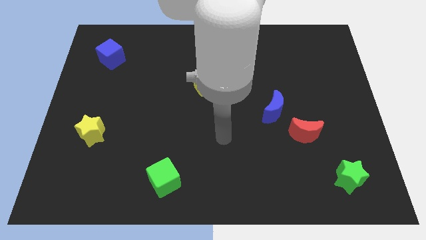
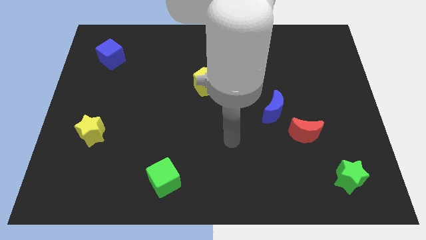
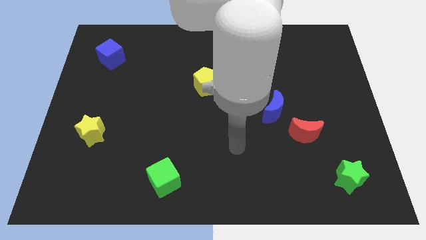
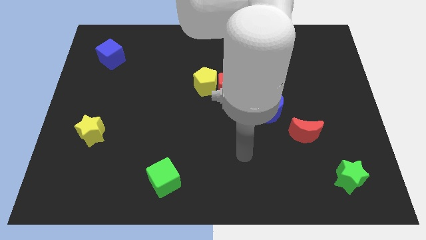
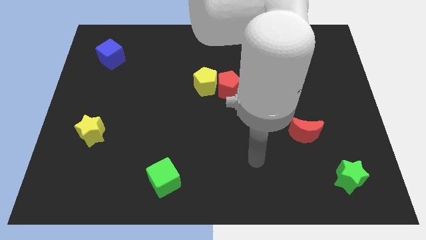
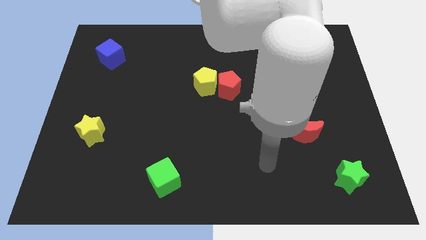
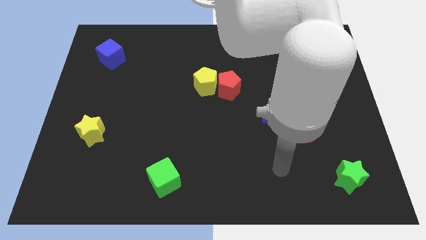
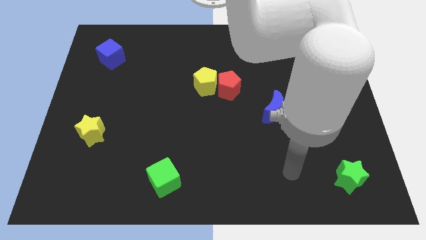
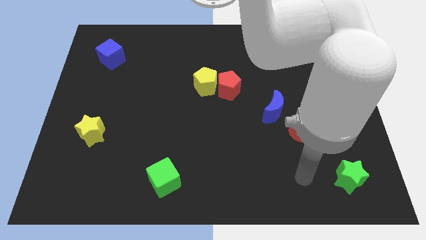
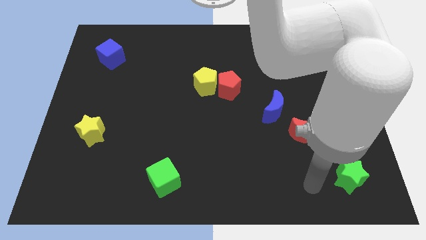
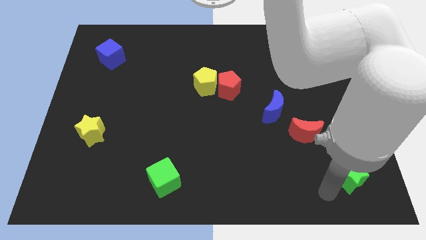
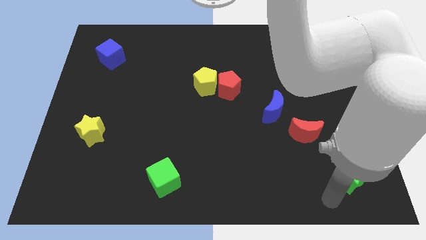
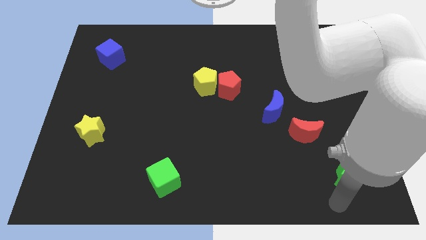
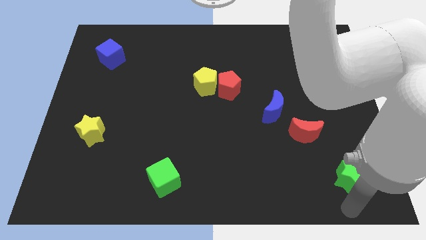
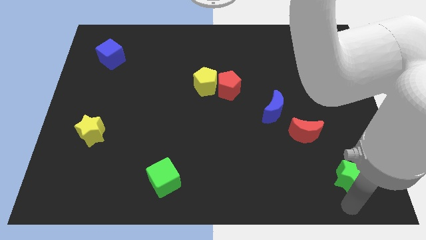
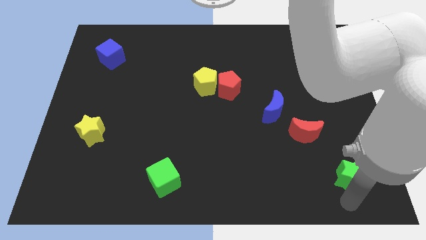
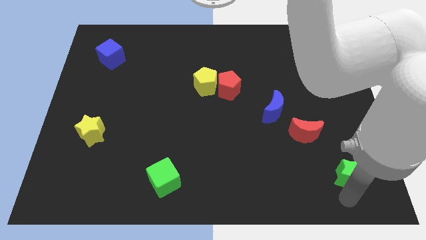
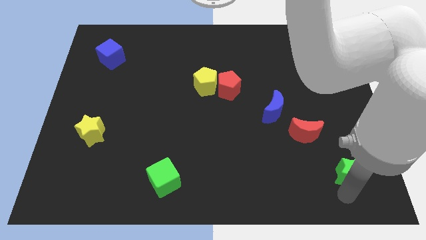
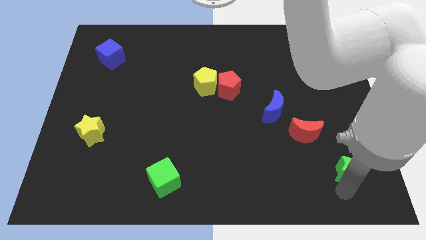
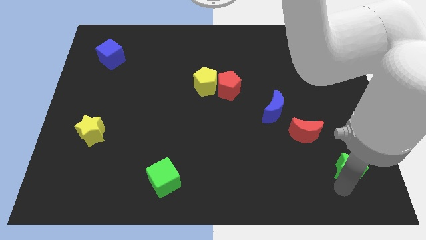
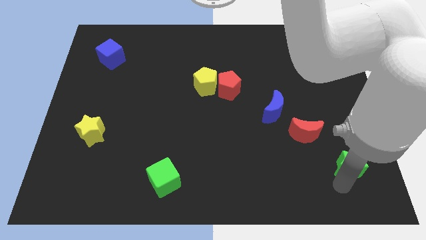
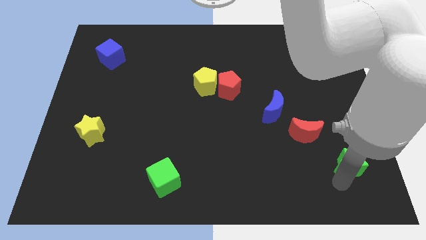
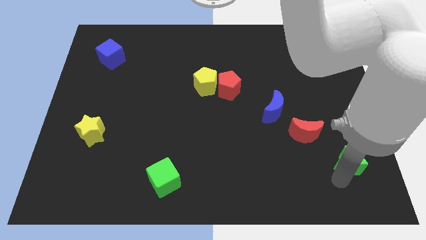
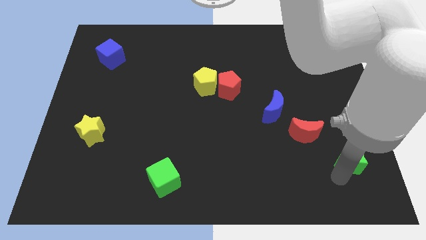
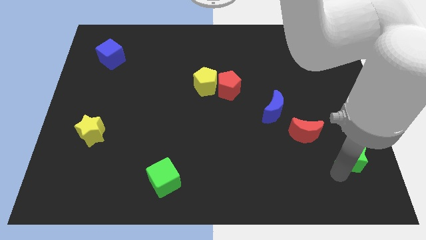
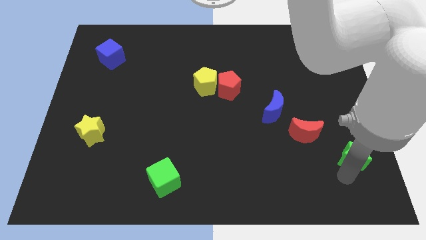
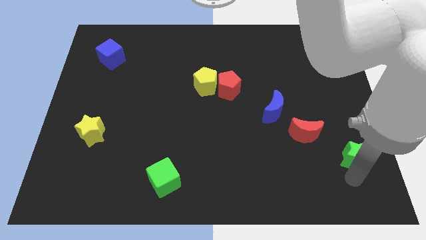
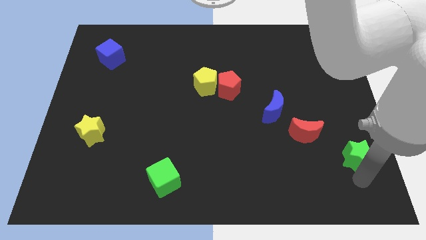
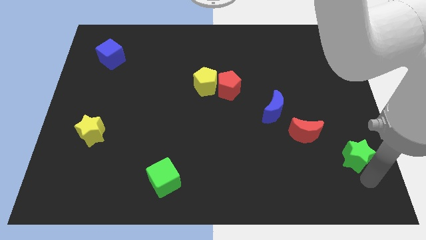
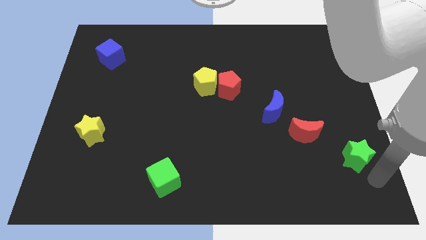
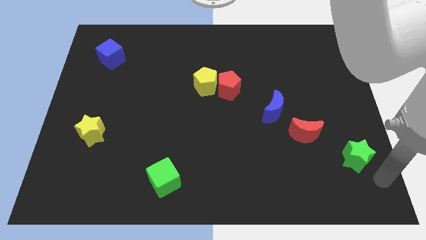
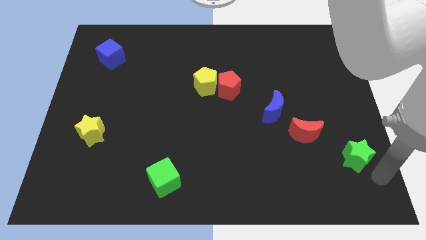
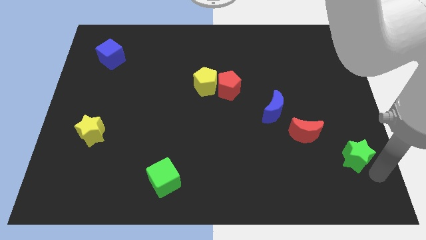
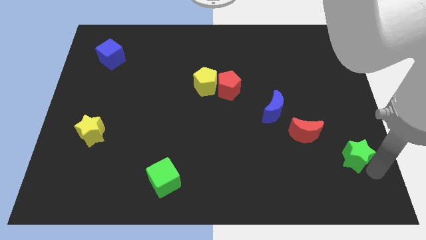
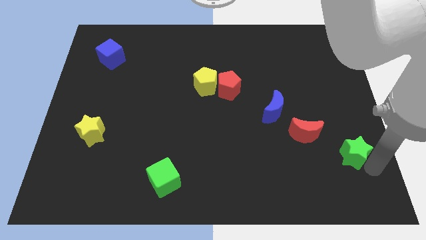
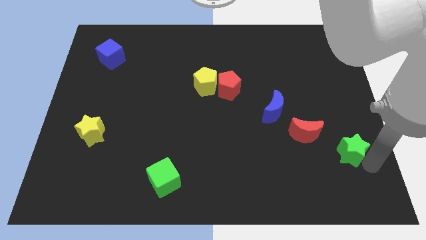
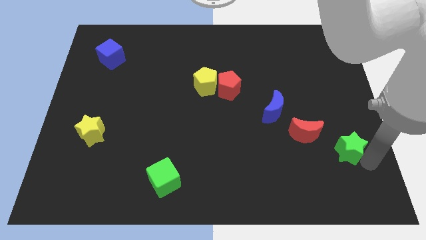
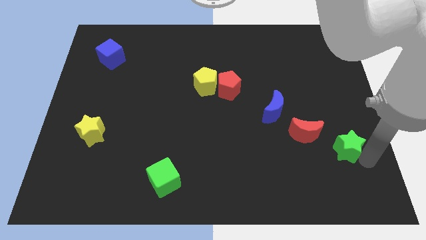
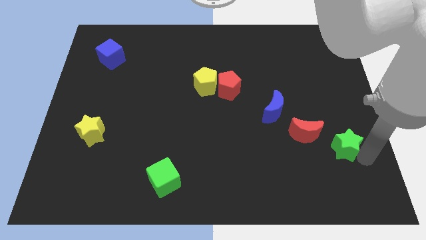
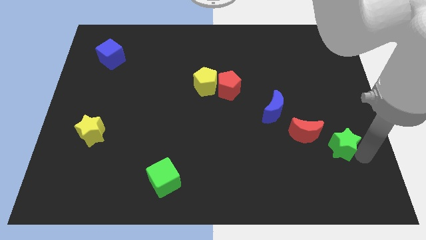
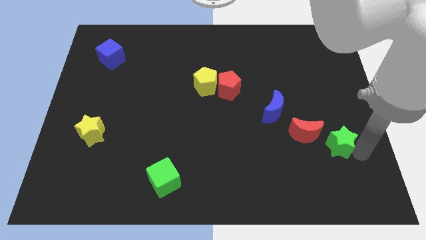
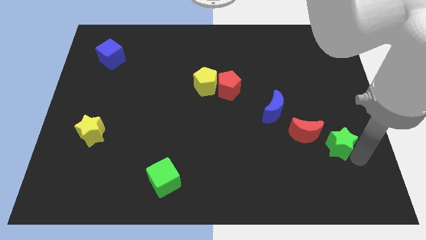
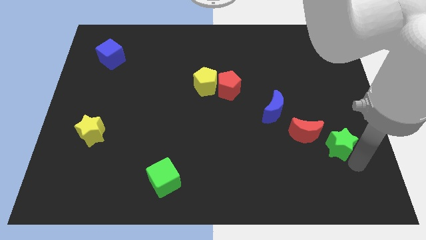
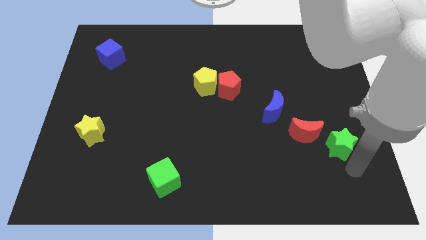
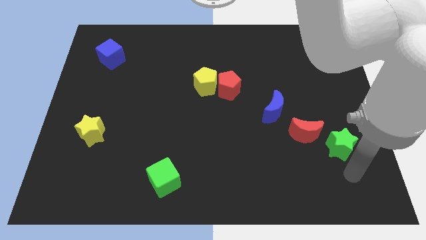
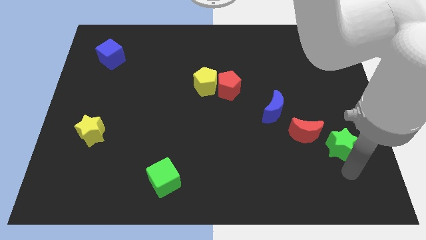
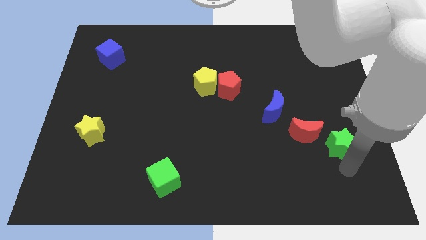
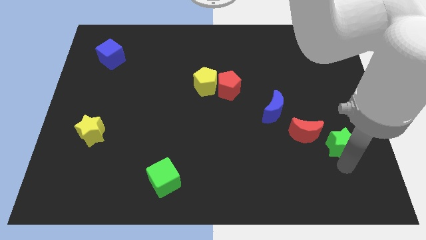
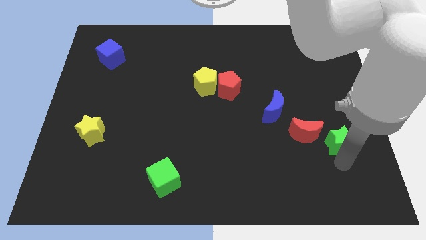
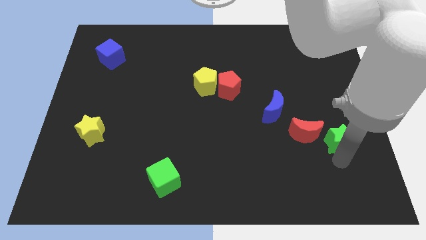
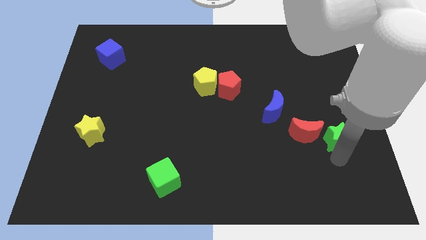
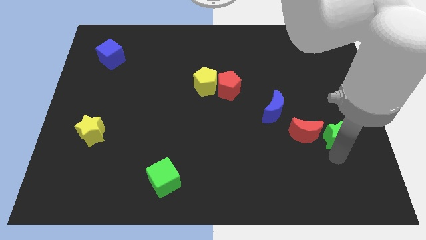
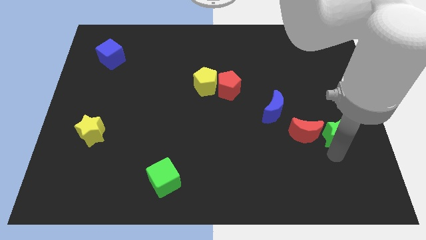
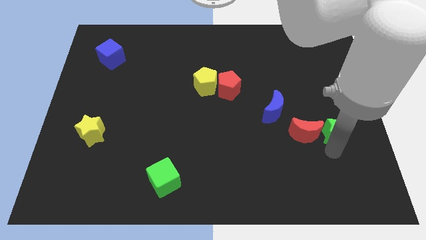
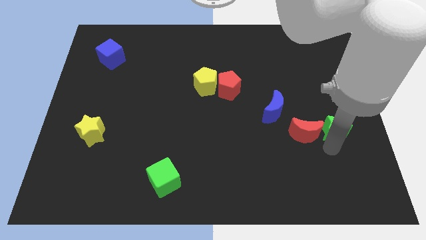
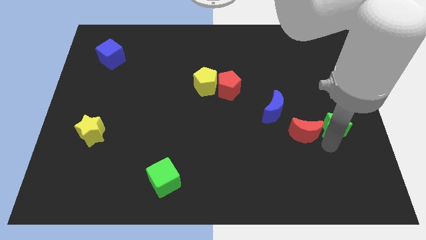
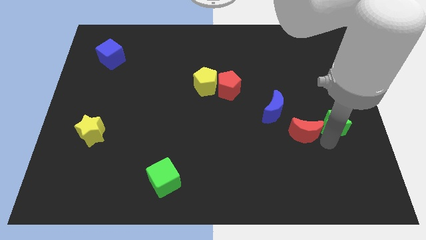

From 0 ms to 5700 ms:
put the green star to the right side of the blue moon

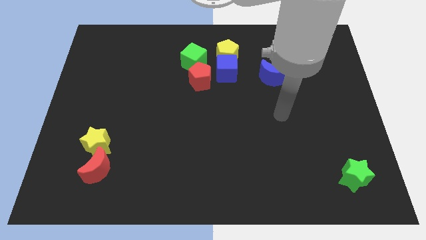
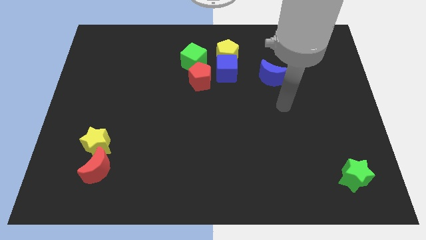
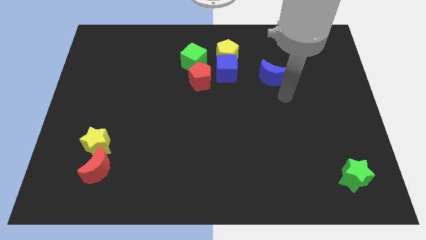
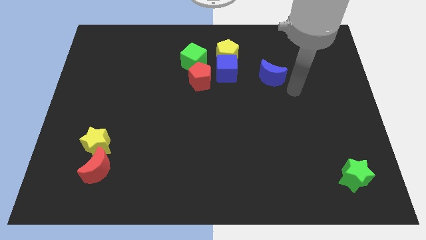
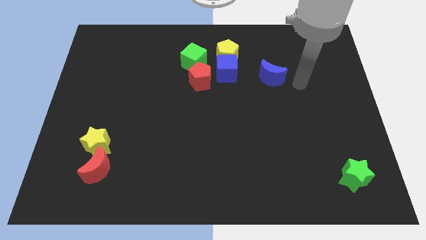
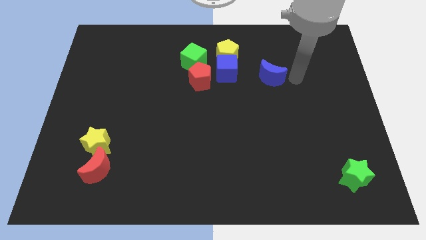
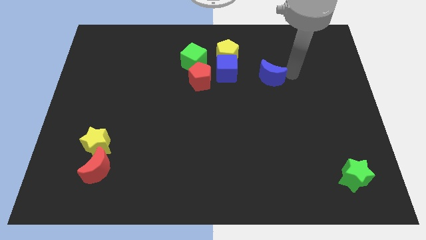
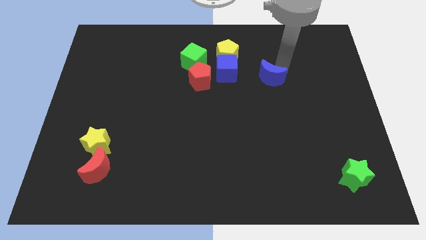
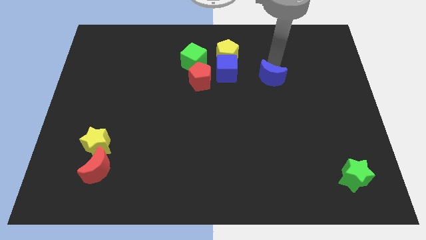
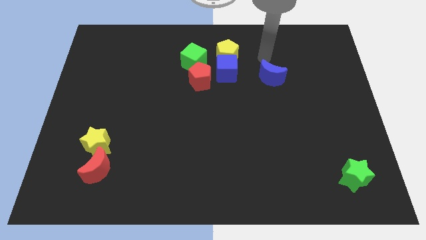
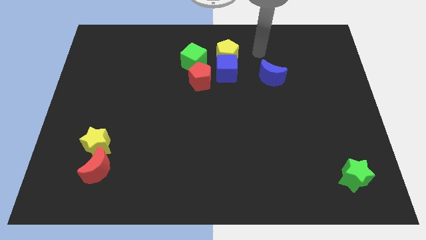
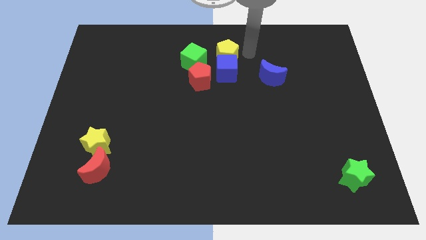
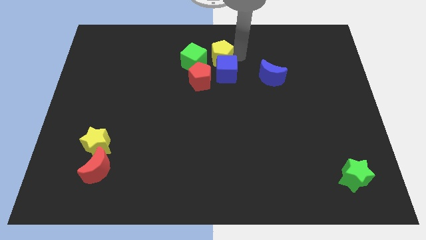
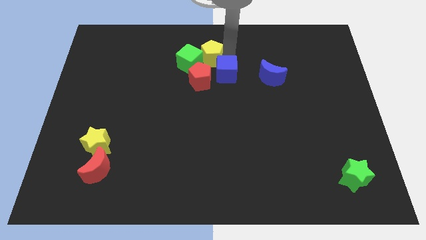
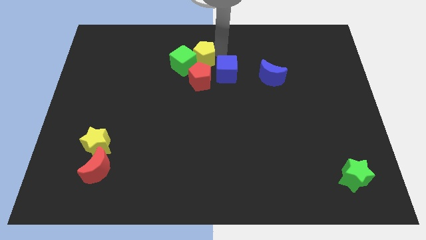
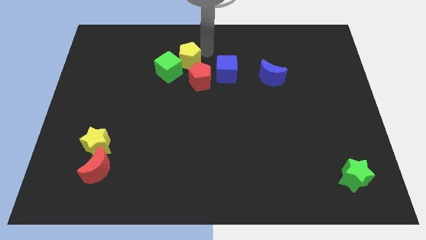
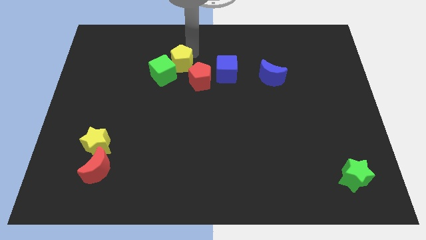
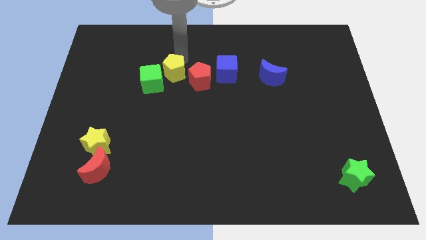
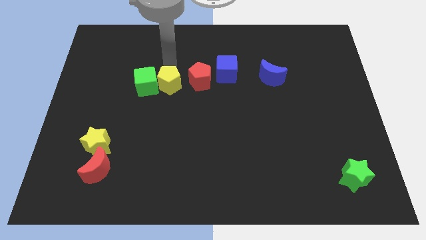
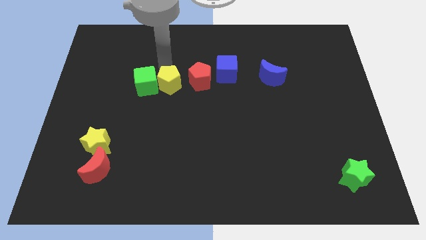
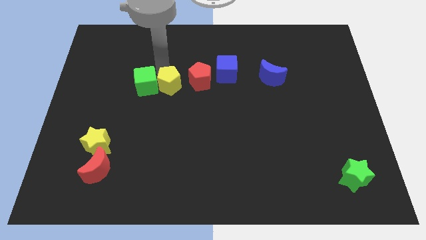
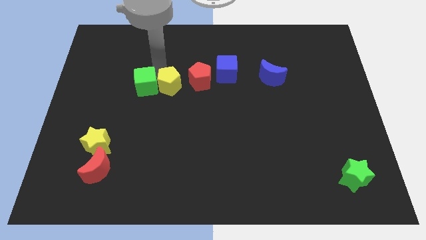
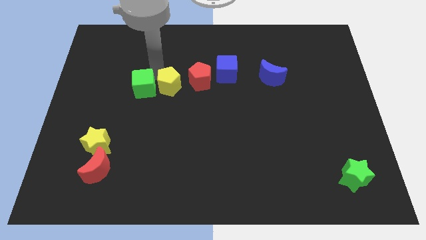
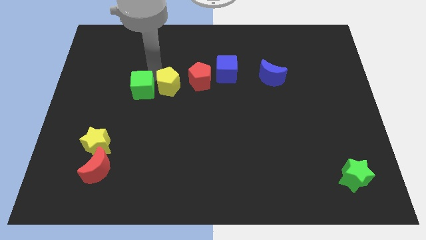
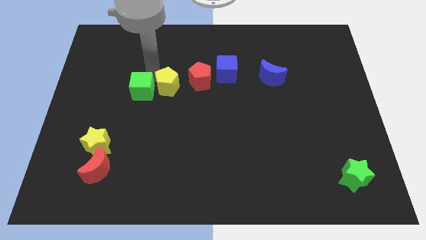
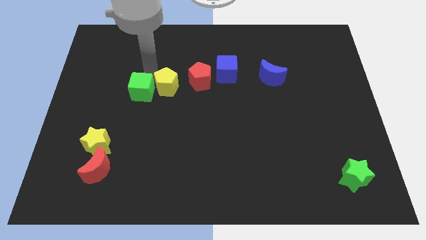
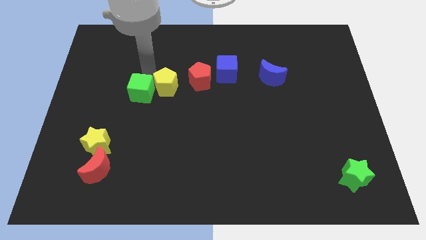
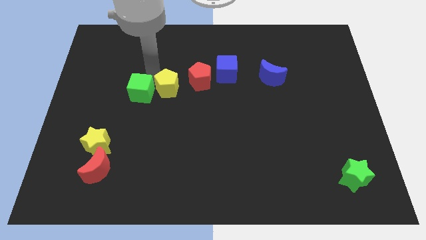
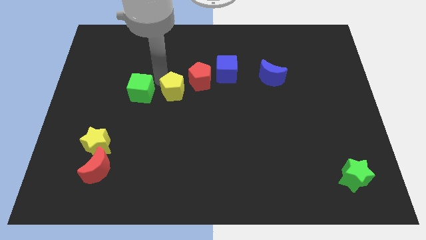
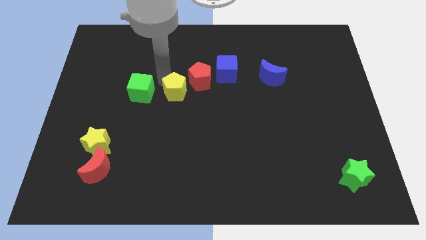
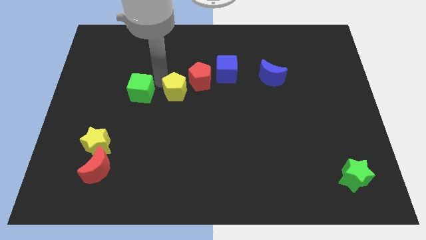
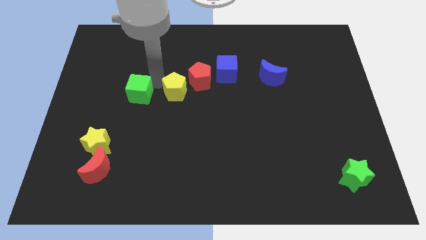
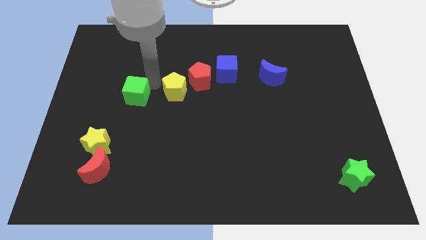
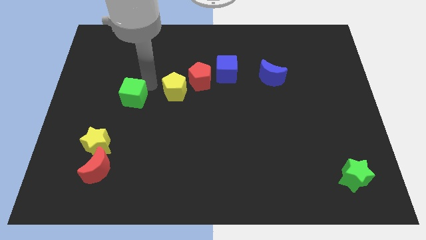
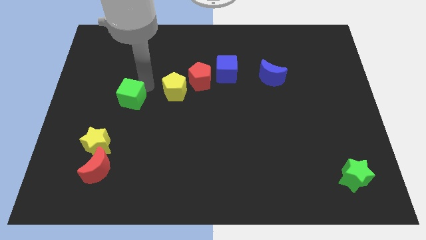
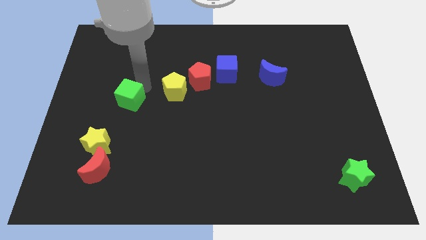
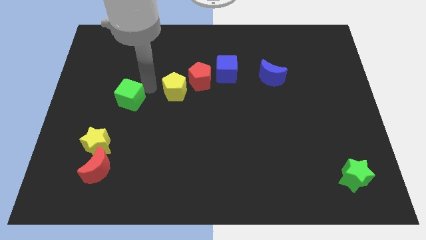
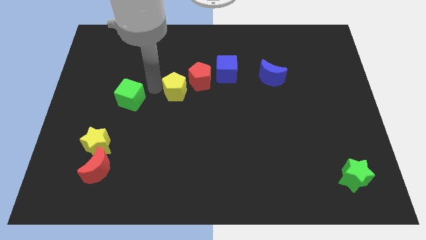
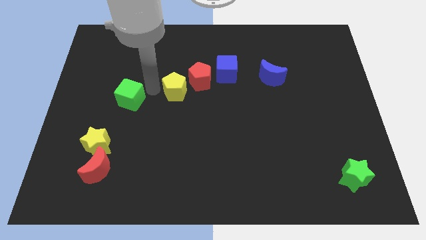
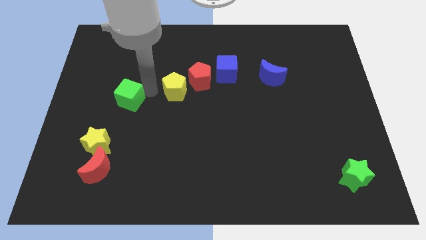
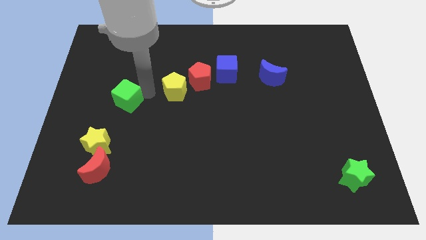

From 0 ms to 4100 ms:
slide the green cube above the yellow star
